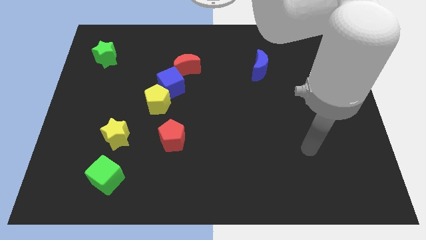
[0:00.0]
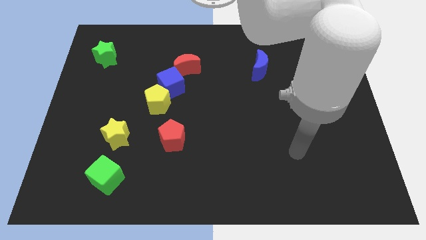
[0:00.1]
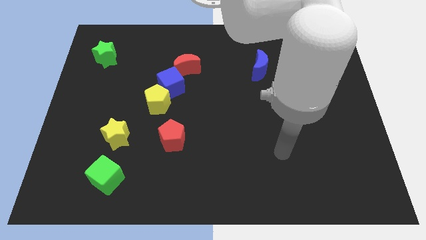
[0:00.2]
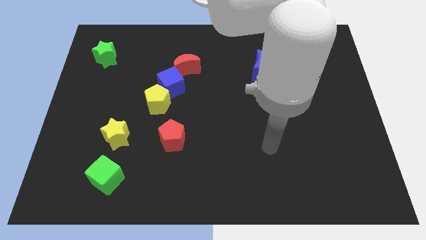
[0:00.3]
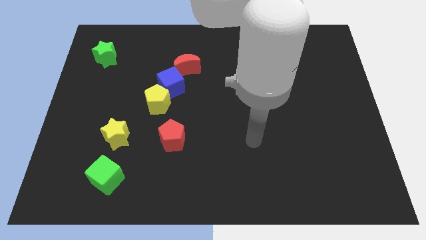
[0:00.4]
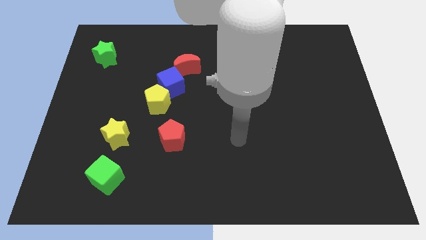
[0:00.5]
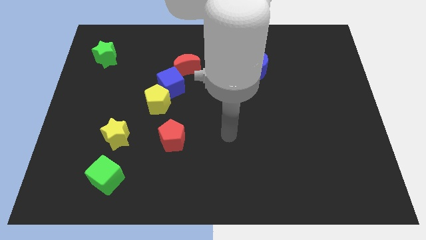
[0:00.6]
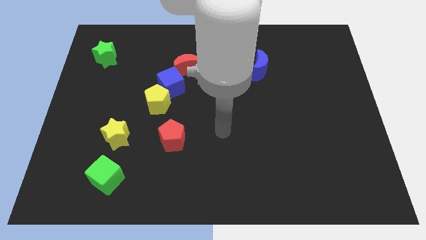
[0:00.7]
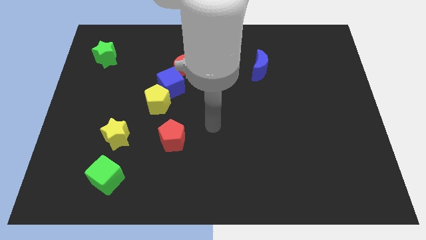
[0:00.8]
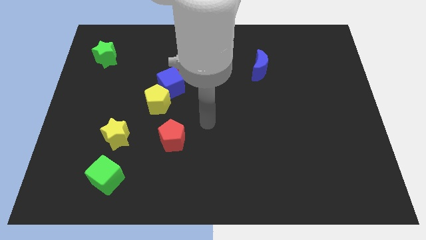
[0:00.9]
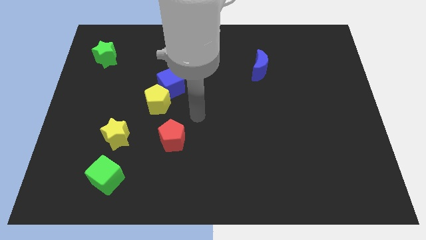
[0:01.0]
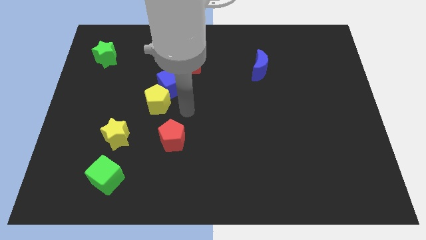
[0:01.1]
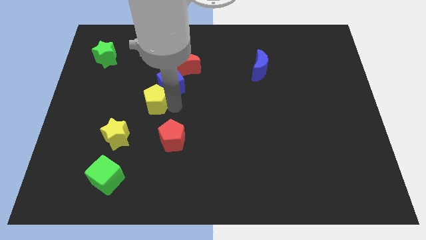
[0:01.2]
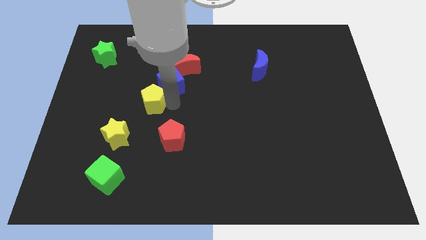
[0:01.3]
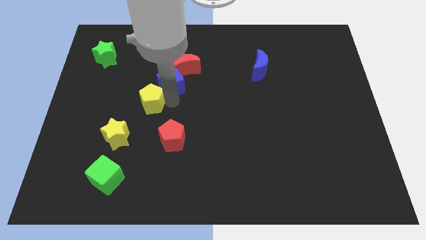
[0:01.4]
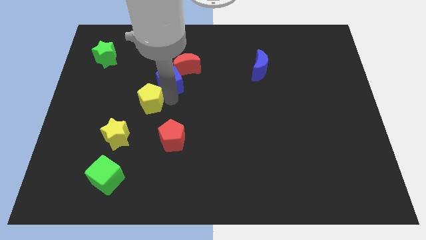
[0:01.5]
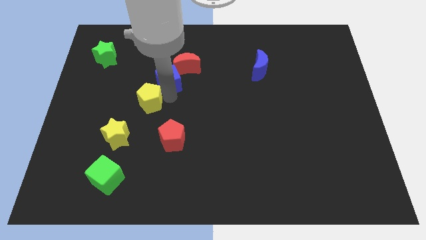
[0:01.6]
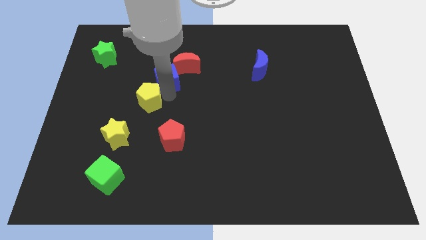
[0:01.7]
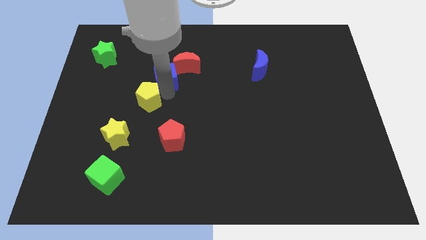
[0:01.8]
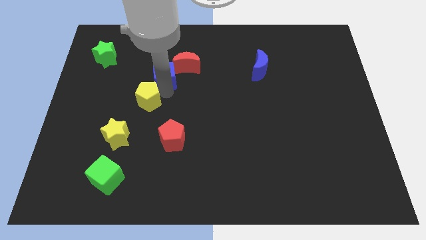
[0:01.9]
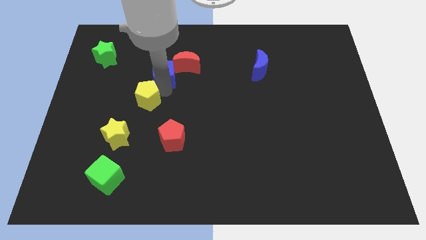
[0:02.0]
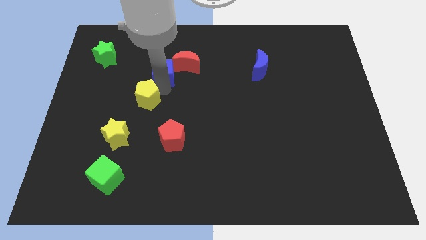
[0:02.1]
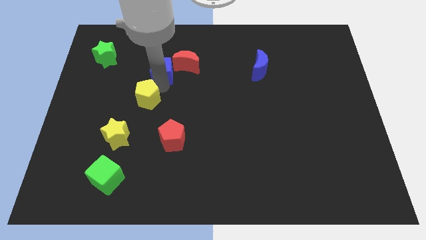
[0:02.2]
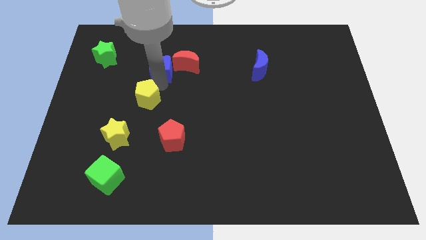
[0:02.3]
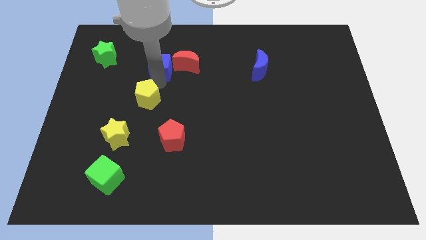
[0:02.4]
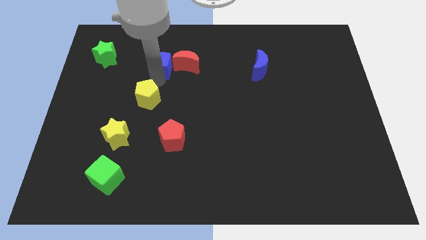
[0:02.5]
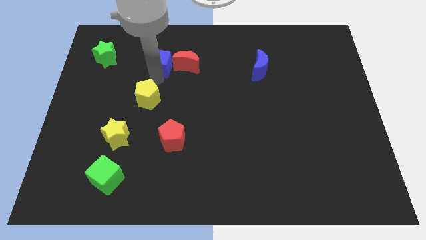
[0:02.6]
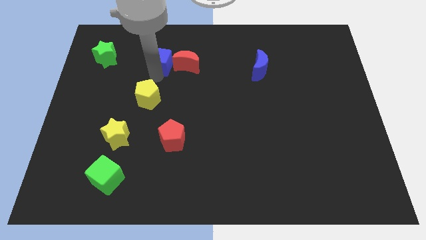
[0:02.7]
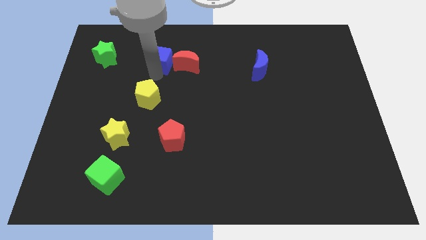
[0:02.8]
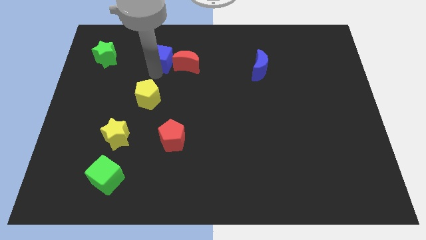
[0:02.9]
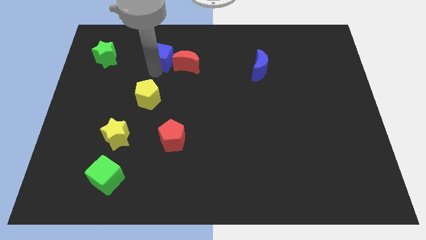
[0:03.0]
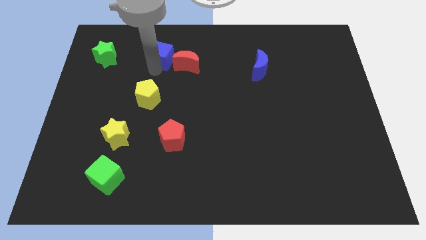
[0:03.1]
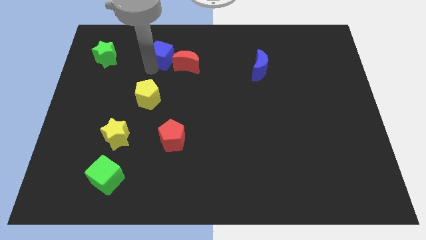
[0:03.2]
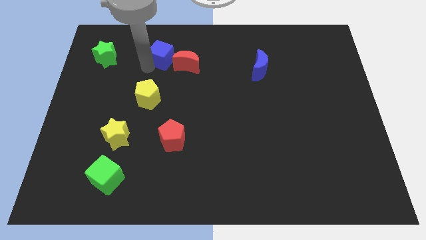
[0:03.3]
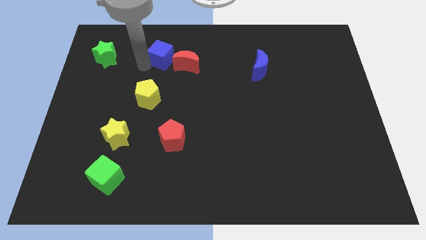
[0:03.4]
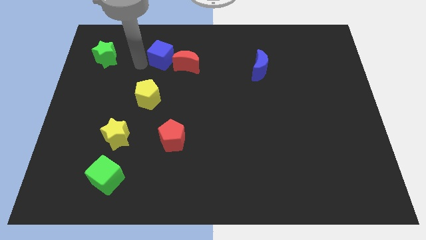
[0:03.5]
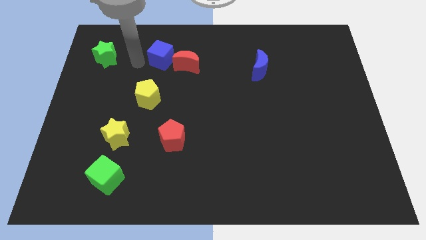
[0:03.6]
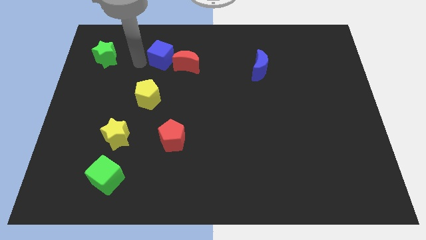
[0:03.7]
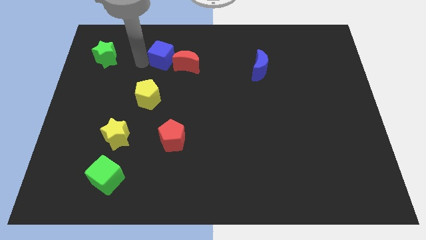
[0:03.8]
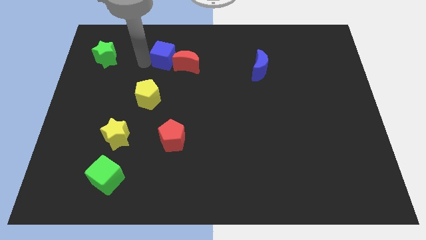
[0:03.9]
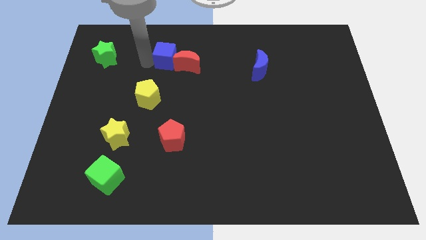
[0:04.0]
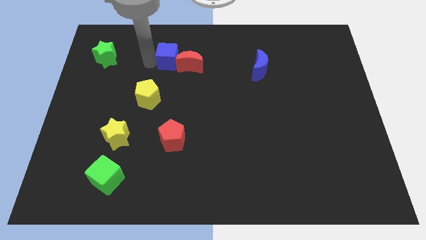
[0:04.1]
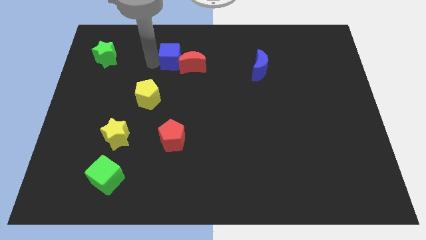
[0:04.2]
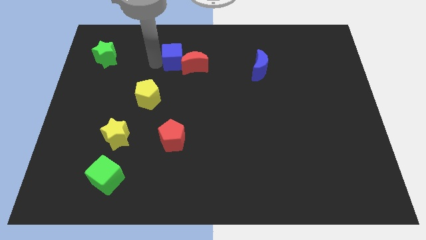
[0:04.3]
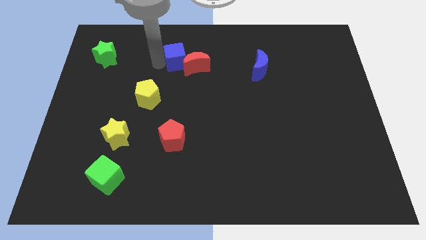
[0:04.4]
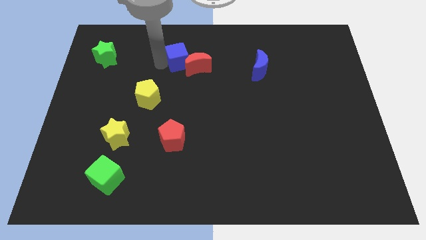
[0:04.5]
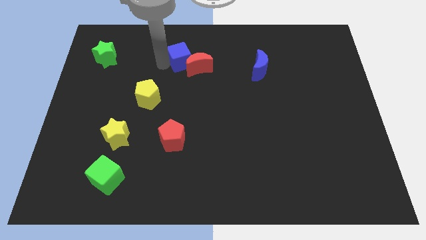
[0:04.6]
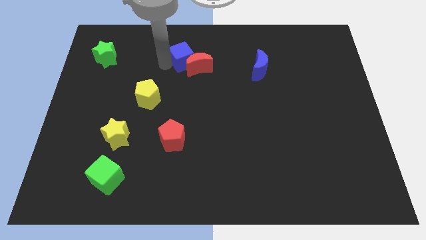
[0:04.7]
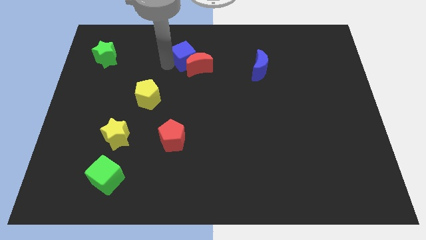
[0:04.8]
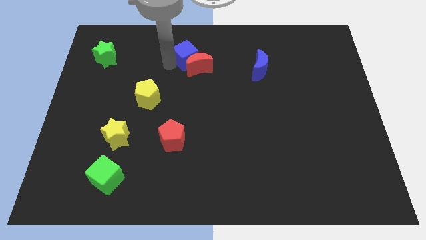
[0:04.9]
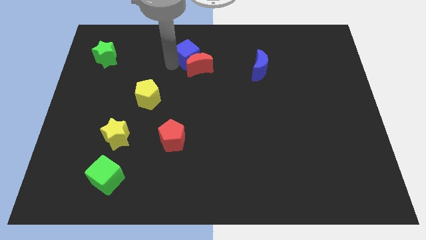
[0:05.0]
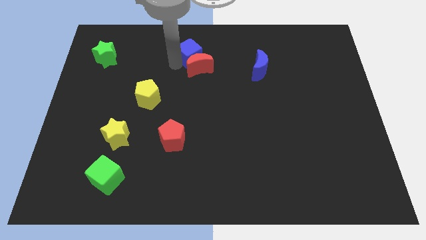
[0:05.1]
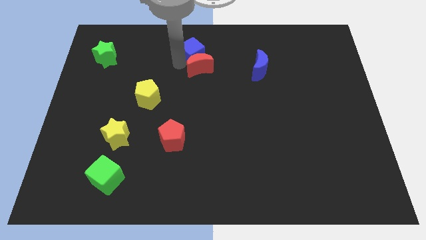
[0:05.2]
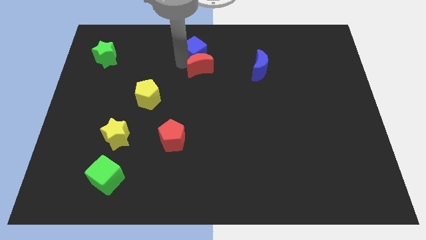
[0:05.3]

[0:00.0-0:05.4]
push the blue cube to the towards your base

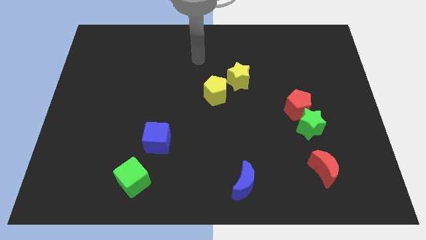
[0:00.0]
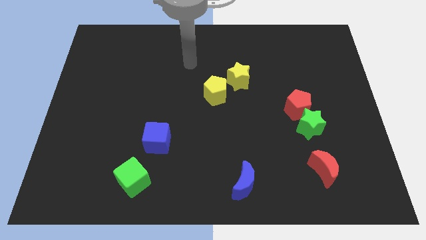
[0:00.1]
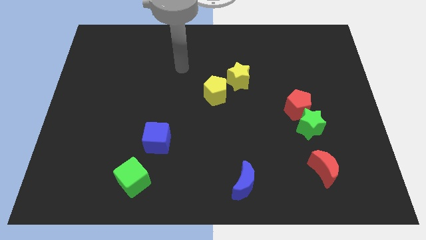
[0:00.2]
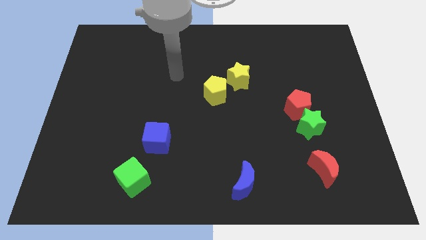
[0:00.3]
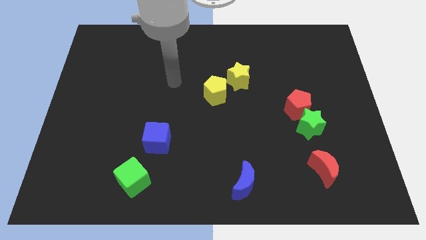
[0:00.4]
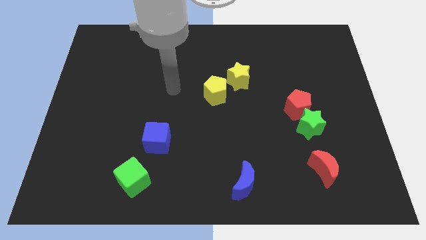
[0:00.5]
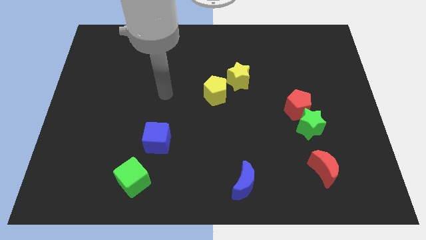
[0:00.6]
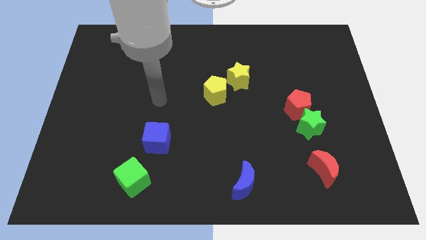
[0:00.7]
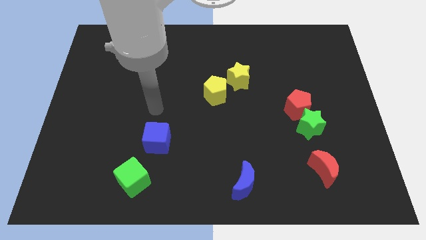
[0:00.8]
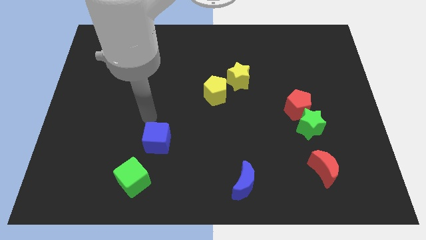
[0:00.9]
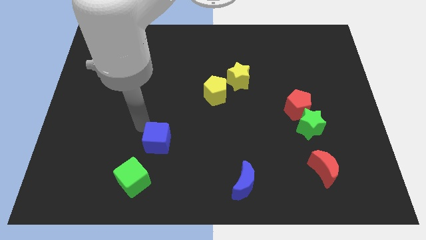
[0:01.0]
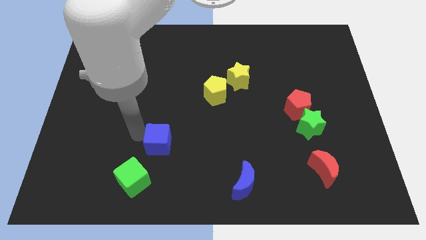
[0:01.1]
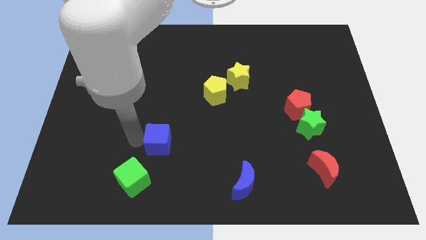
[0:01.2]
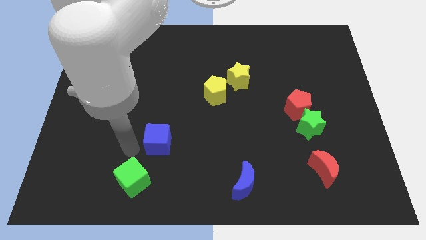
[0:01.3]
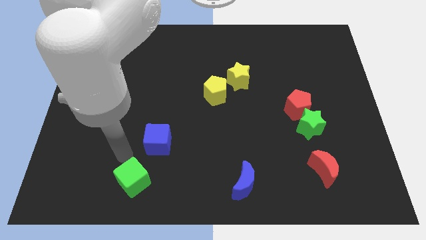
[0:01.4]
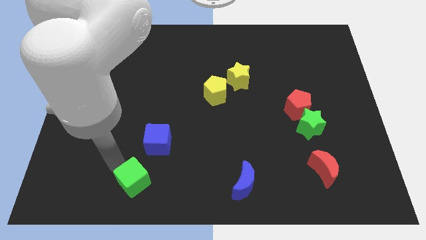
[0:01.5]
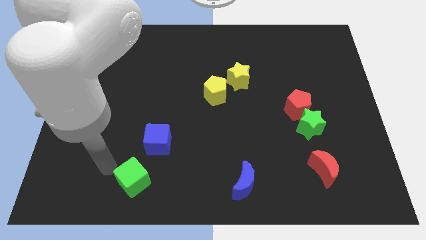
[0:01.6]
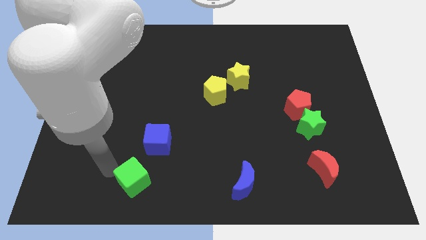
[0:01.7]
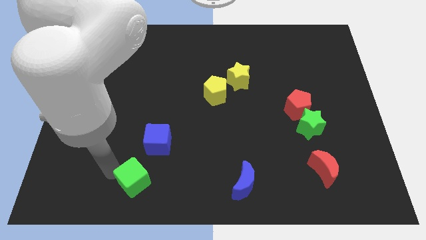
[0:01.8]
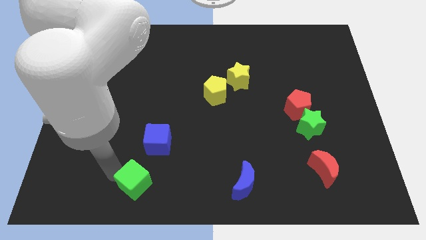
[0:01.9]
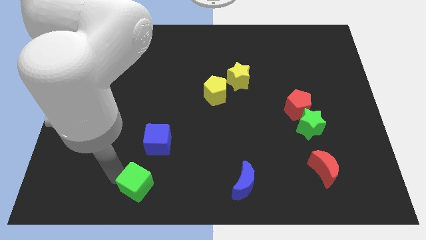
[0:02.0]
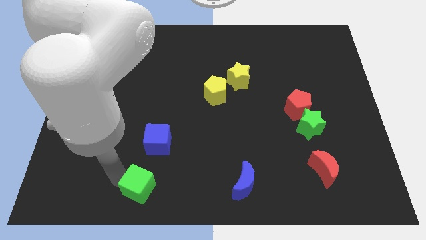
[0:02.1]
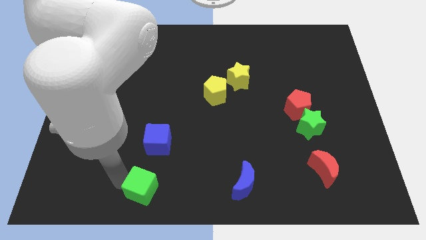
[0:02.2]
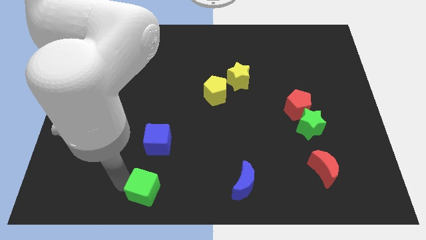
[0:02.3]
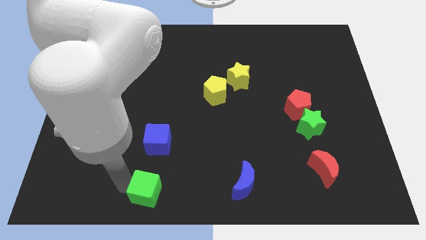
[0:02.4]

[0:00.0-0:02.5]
move the green cube to the bottom side
